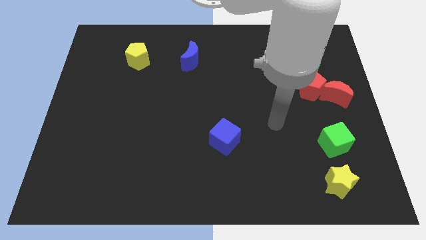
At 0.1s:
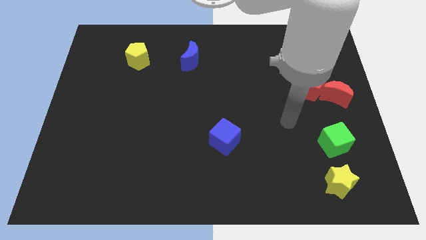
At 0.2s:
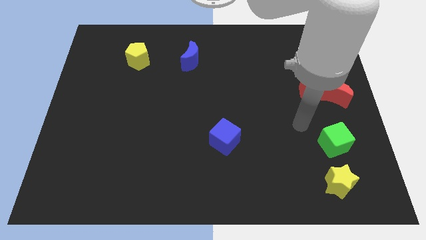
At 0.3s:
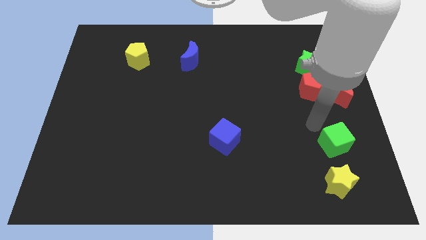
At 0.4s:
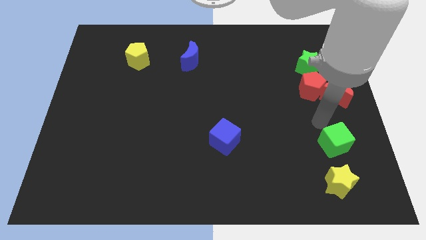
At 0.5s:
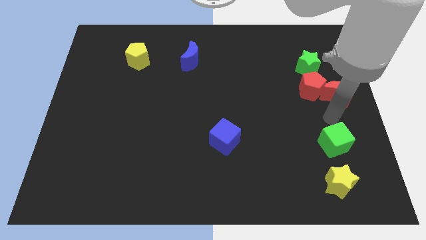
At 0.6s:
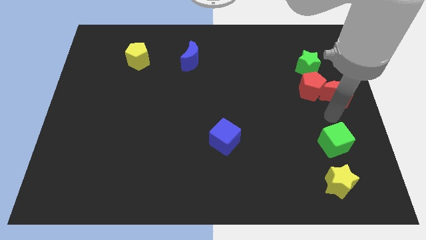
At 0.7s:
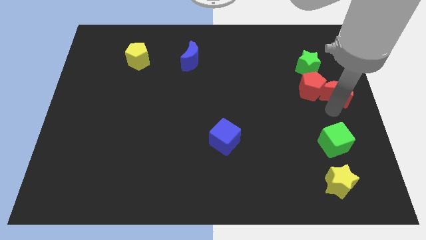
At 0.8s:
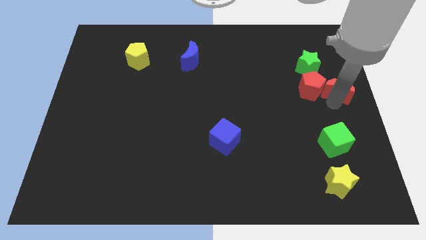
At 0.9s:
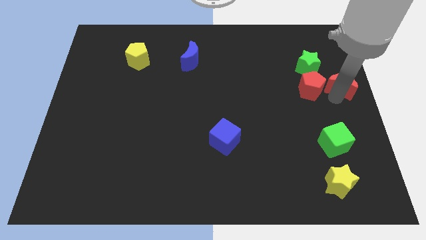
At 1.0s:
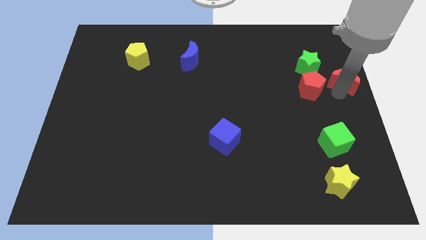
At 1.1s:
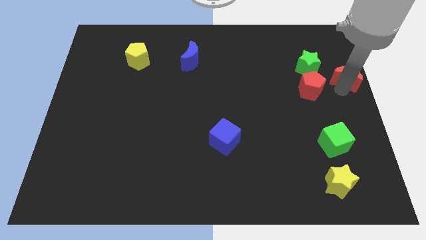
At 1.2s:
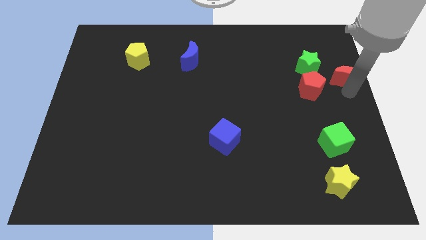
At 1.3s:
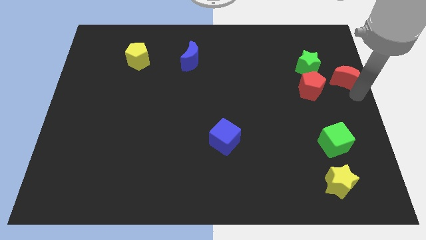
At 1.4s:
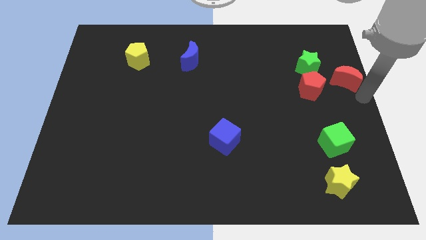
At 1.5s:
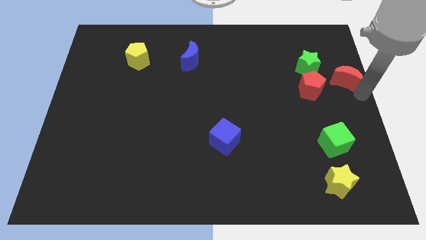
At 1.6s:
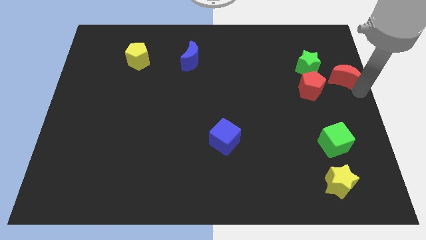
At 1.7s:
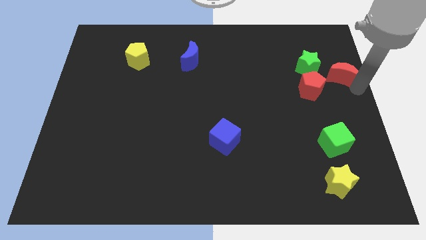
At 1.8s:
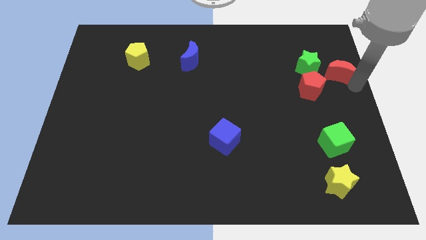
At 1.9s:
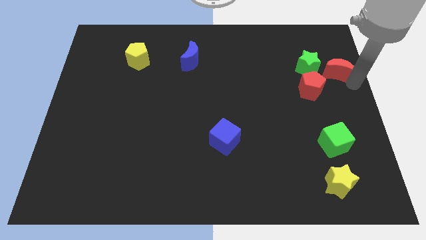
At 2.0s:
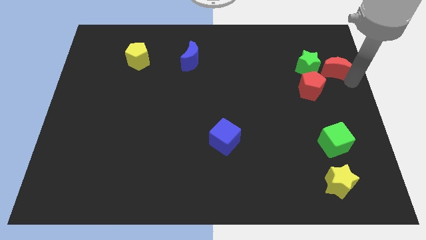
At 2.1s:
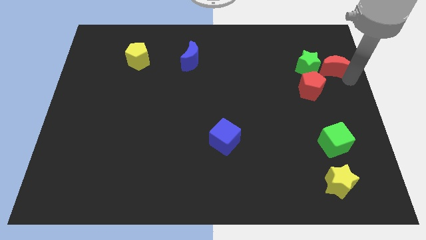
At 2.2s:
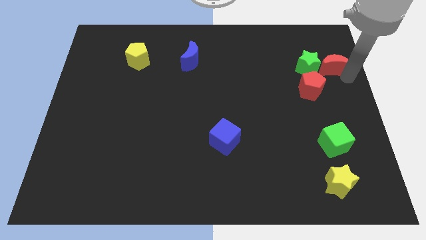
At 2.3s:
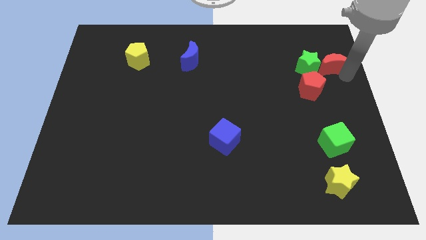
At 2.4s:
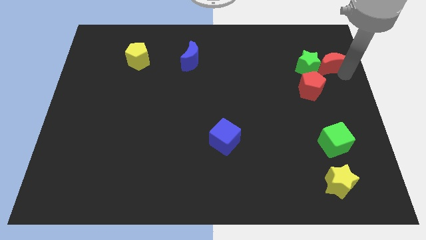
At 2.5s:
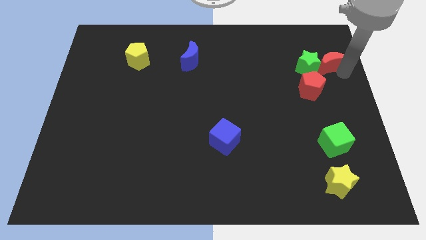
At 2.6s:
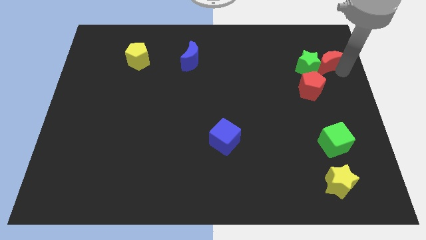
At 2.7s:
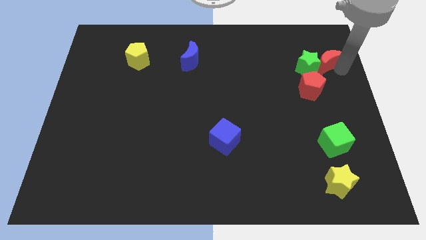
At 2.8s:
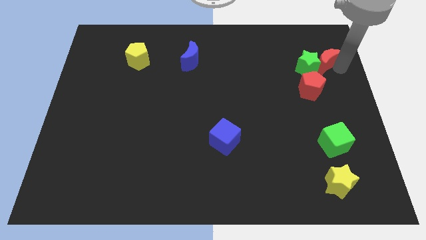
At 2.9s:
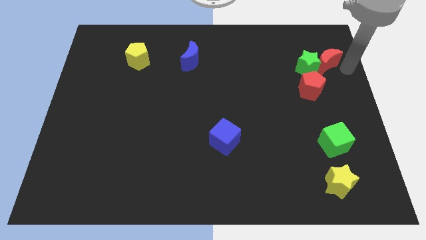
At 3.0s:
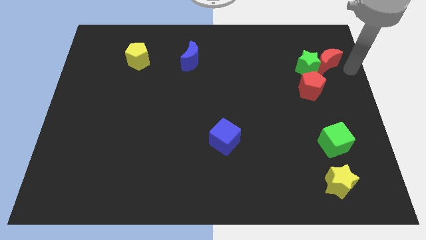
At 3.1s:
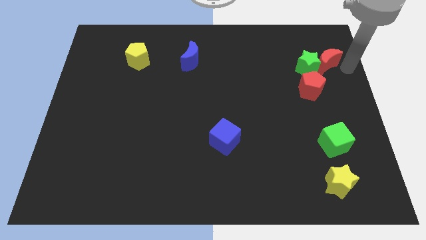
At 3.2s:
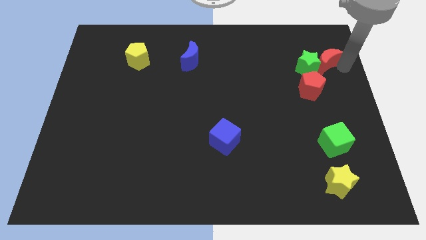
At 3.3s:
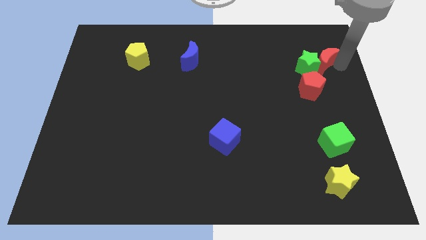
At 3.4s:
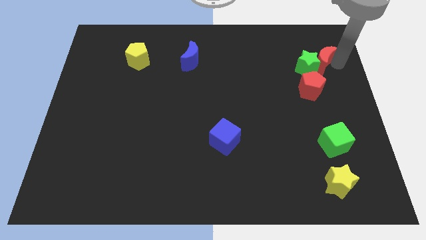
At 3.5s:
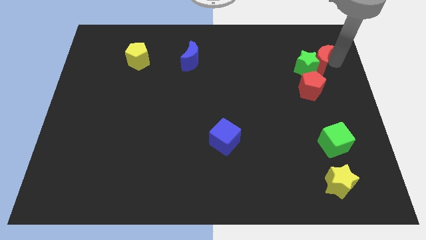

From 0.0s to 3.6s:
move the red moon slightly upwards and then left

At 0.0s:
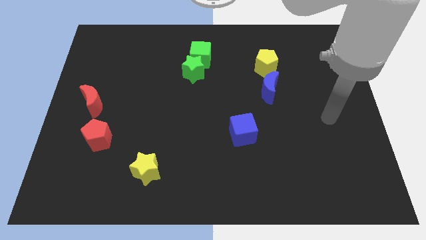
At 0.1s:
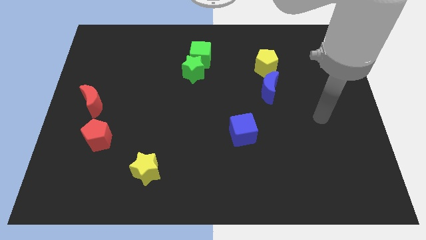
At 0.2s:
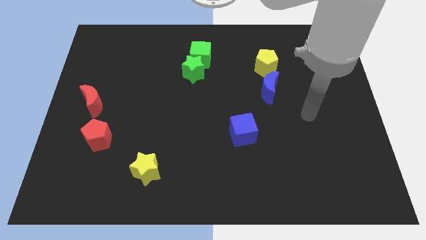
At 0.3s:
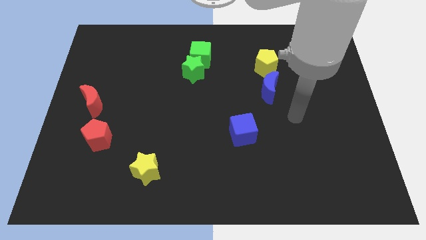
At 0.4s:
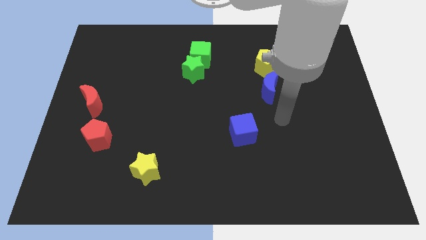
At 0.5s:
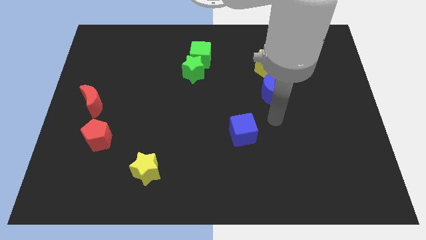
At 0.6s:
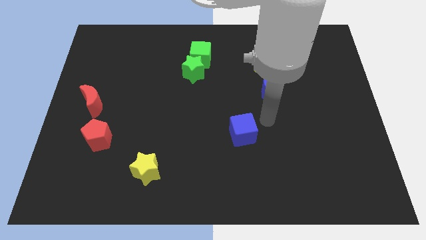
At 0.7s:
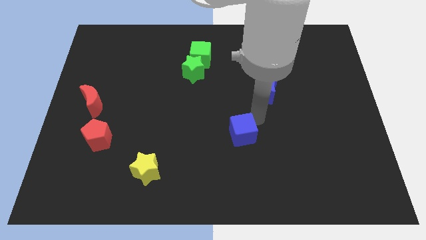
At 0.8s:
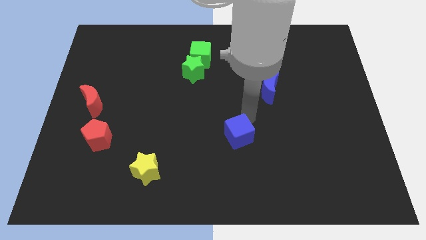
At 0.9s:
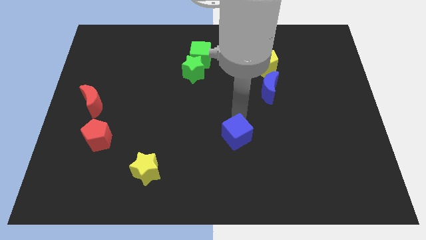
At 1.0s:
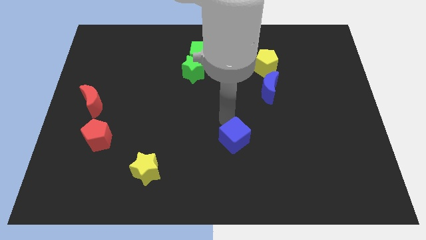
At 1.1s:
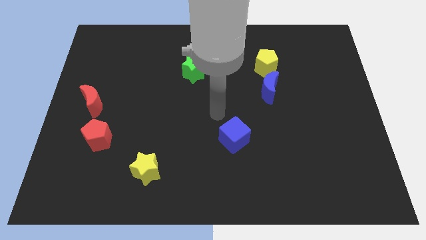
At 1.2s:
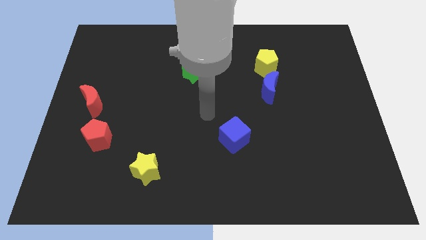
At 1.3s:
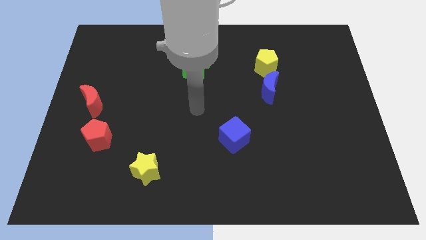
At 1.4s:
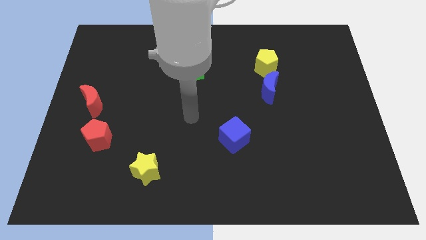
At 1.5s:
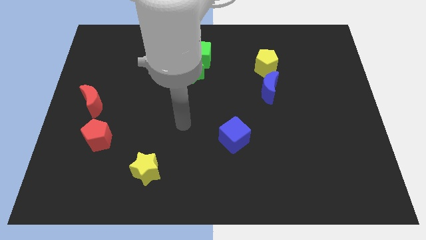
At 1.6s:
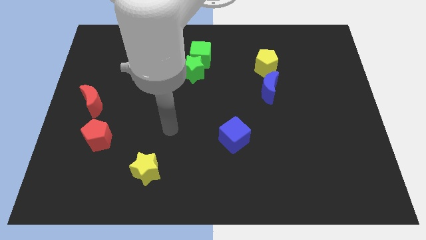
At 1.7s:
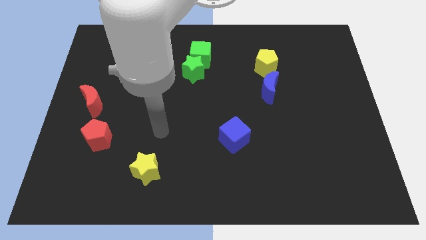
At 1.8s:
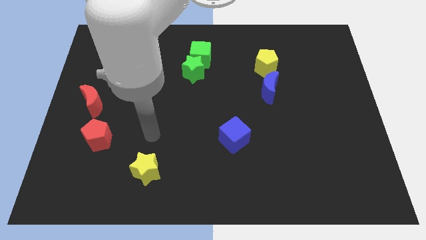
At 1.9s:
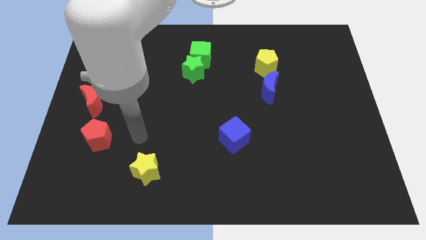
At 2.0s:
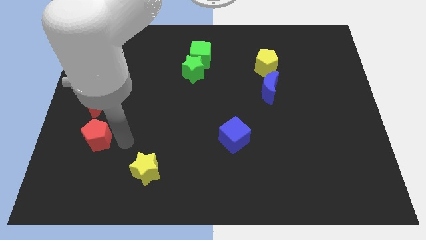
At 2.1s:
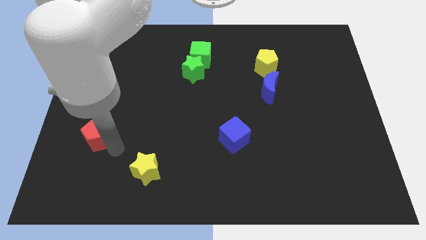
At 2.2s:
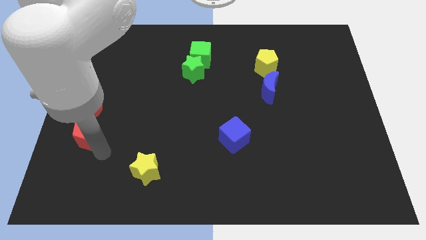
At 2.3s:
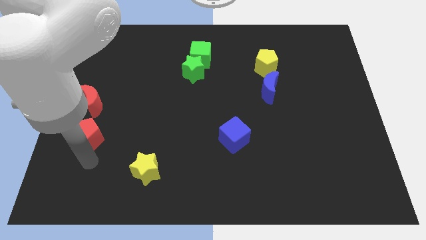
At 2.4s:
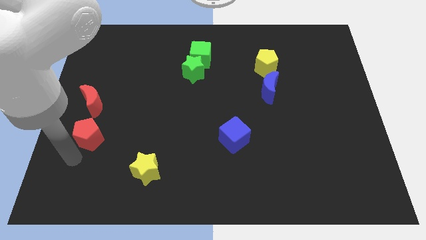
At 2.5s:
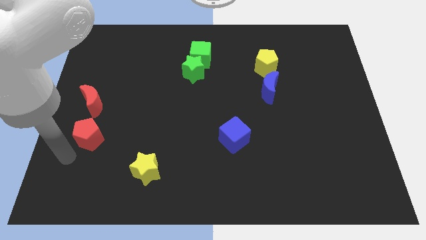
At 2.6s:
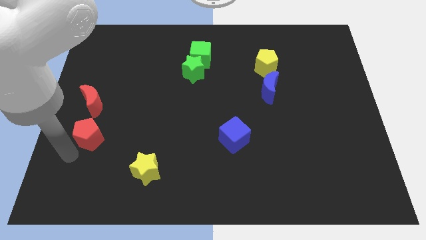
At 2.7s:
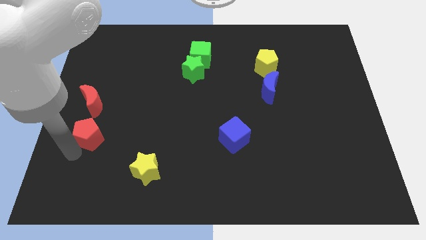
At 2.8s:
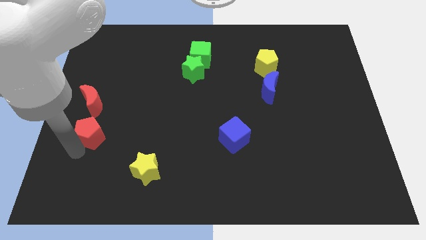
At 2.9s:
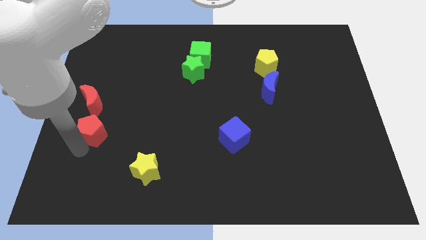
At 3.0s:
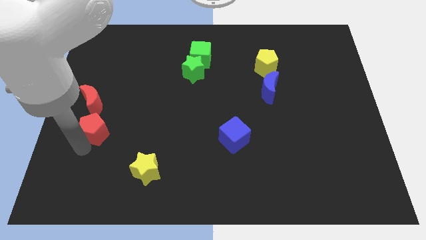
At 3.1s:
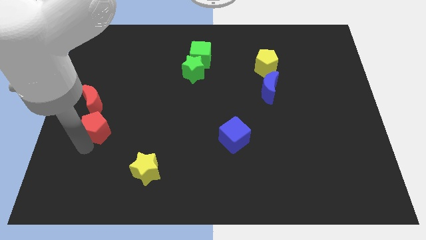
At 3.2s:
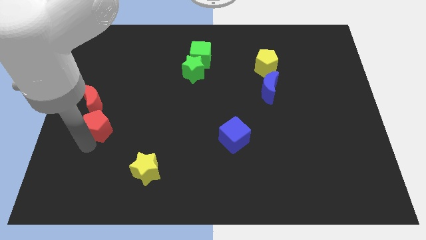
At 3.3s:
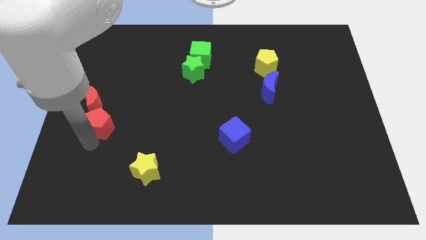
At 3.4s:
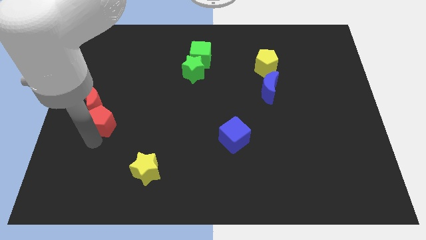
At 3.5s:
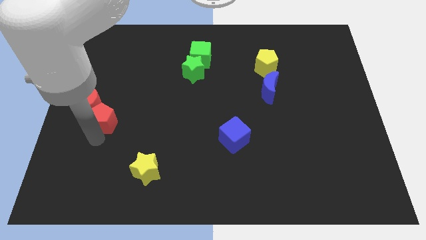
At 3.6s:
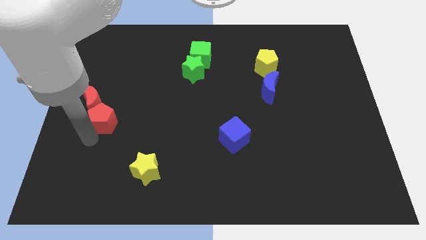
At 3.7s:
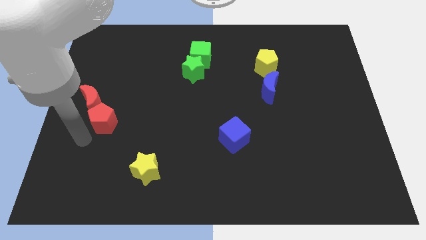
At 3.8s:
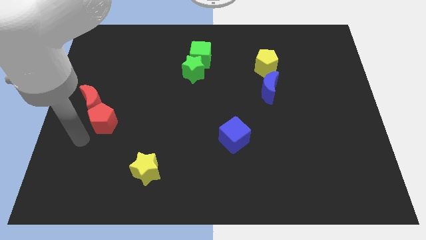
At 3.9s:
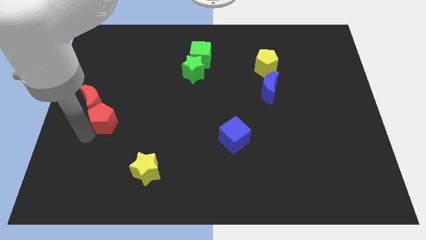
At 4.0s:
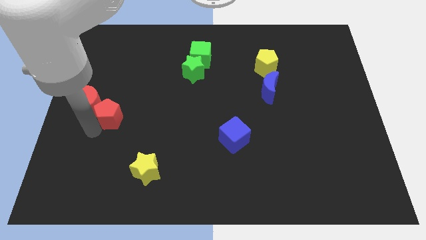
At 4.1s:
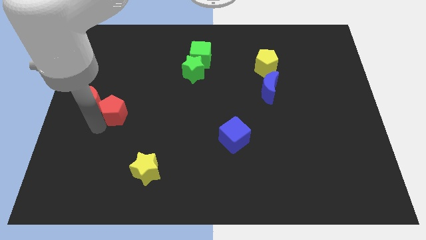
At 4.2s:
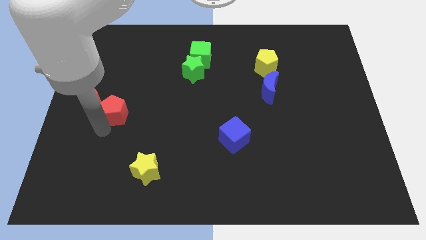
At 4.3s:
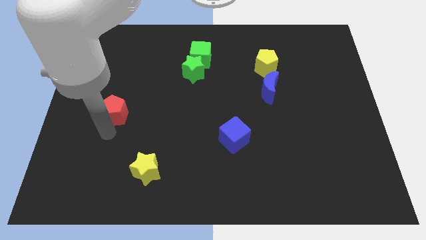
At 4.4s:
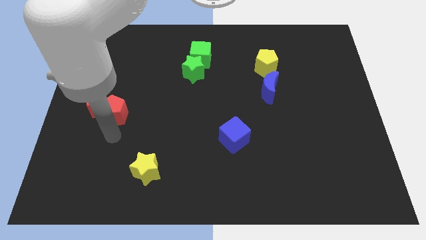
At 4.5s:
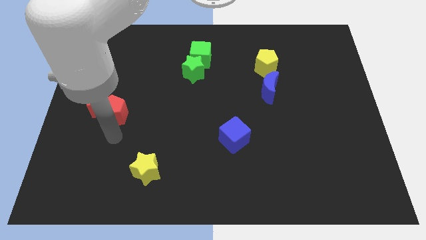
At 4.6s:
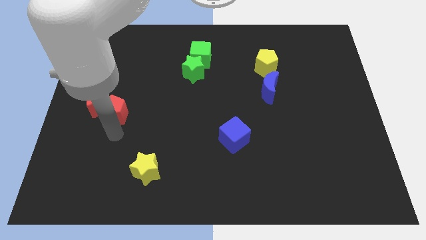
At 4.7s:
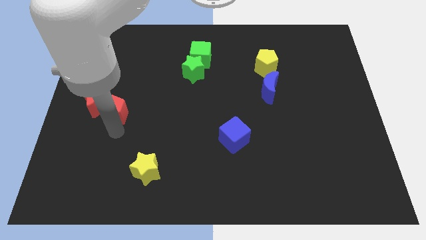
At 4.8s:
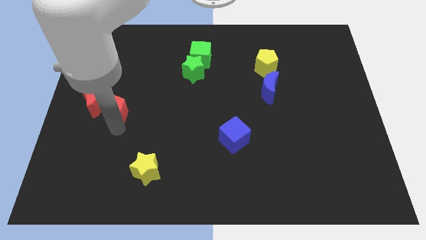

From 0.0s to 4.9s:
push the red pentagon up slightly
